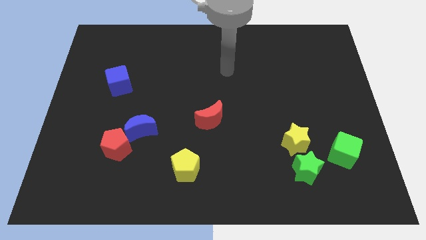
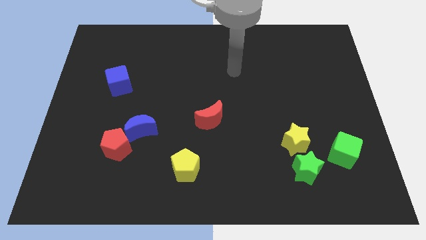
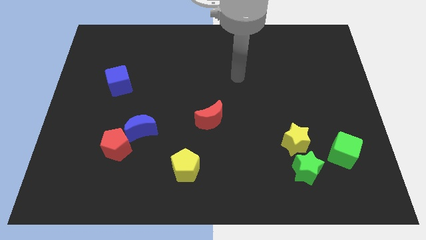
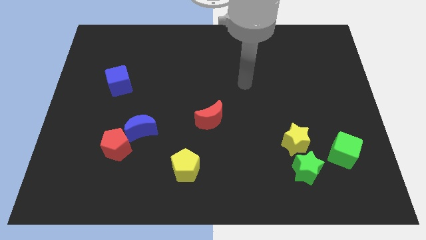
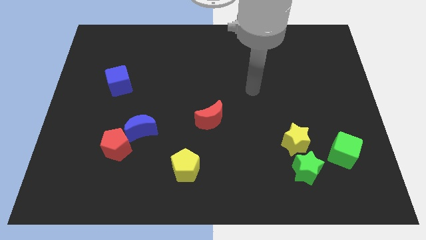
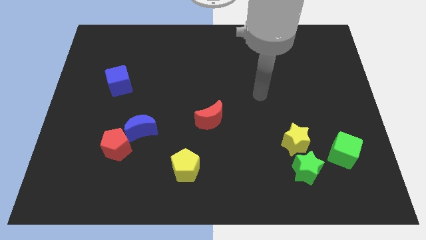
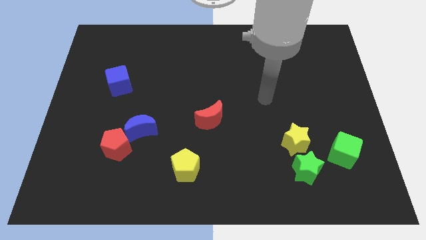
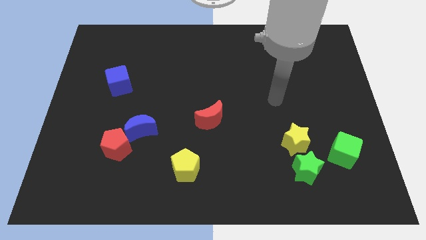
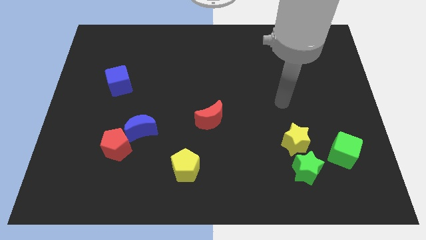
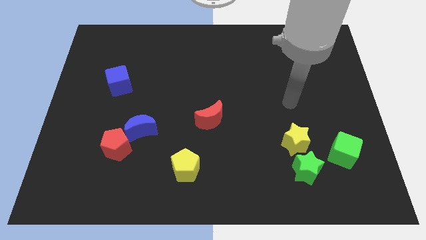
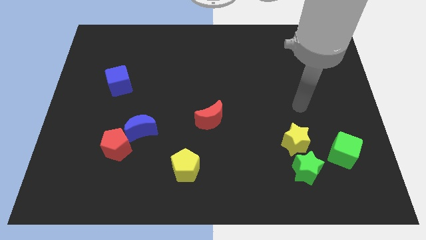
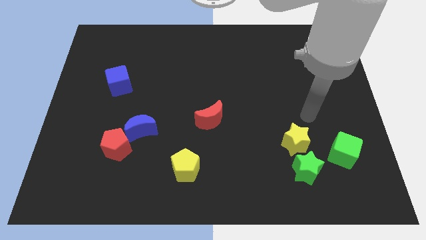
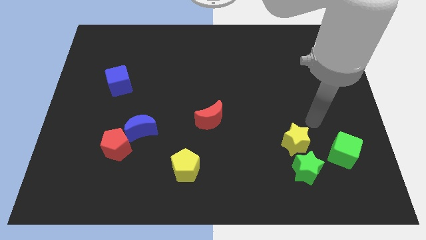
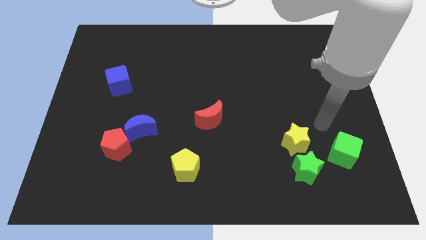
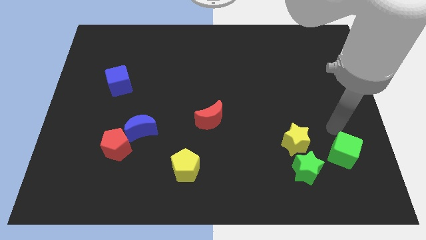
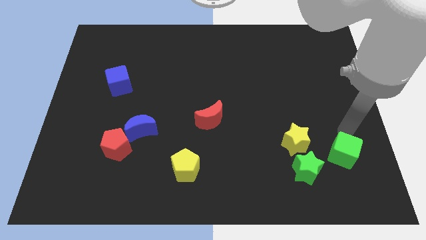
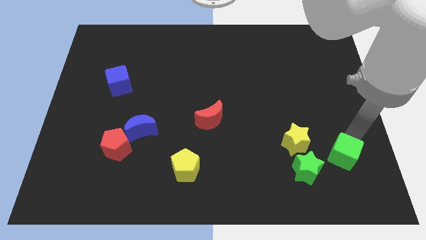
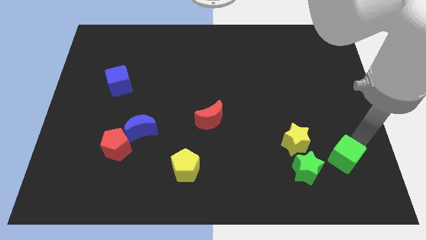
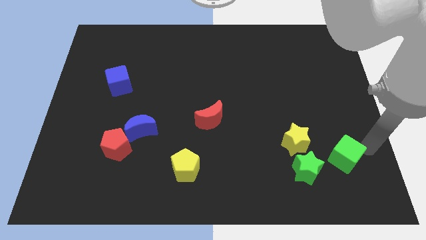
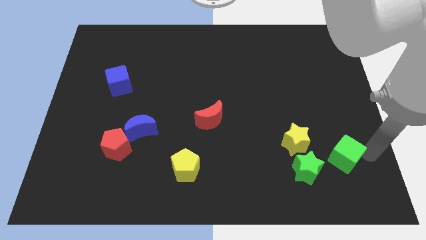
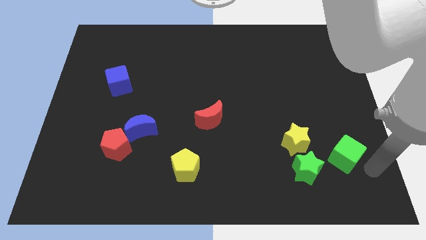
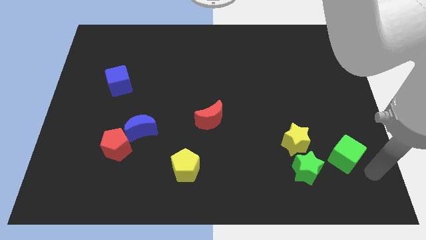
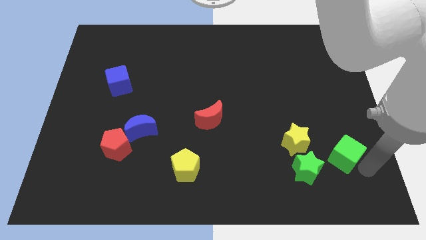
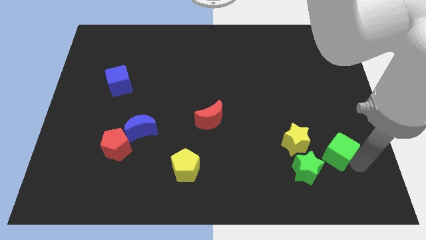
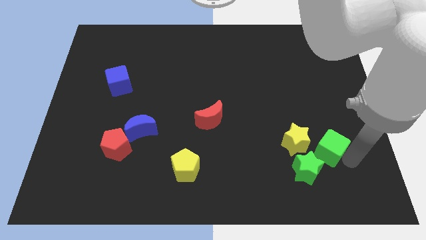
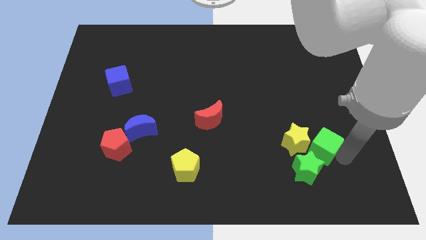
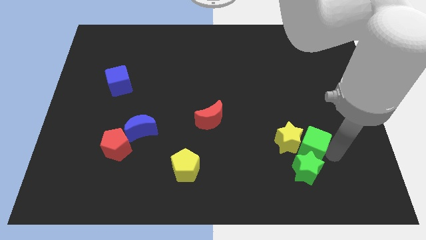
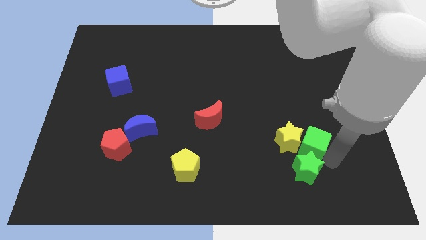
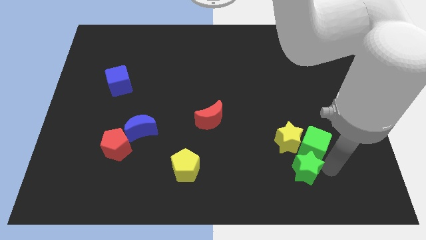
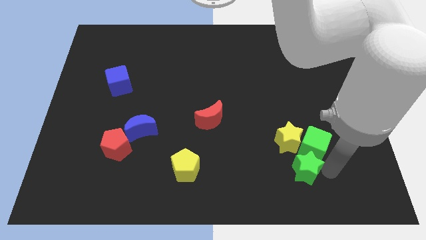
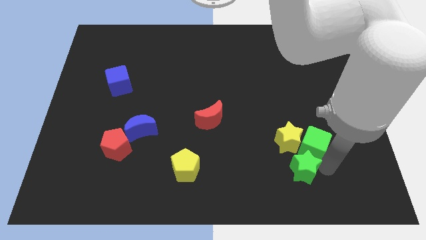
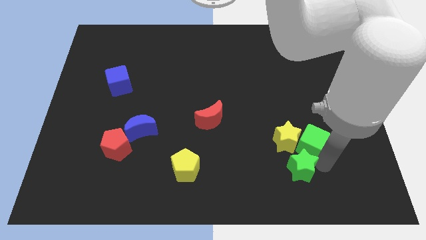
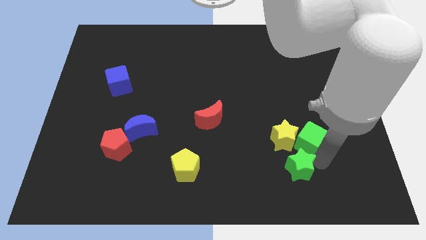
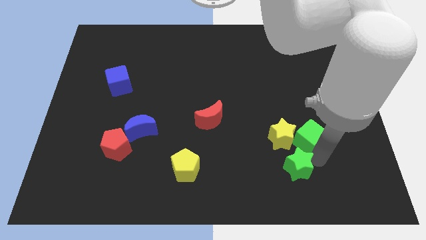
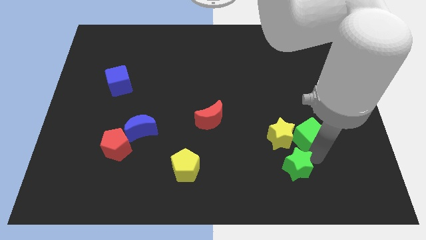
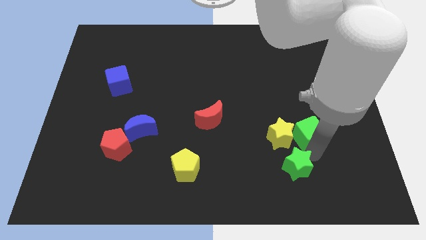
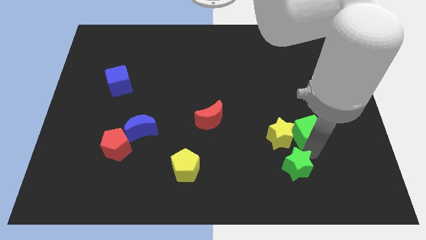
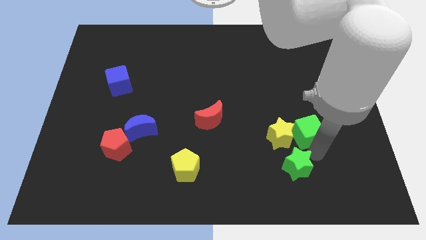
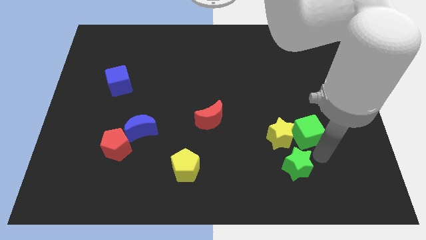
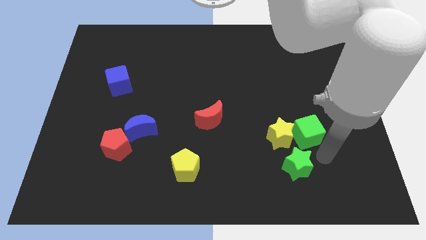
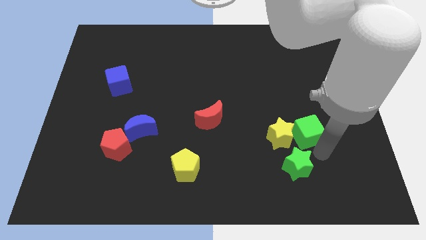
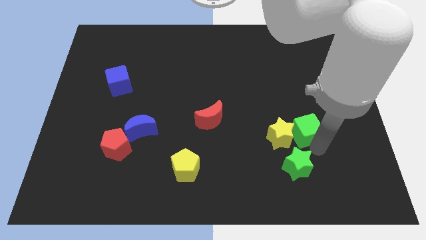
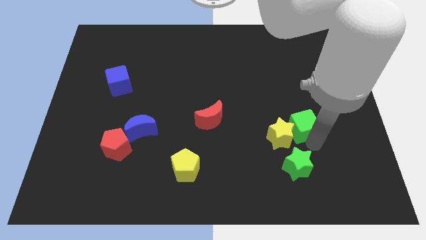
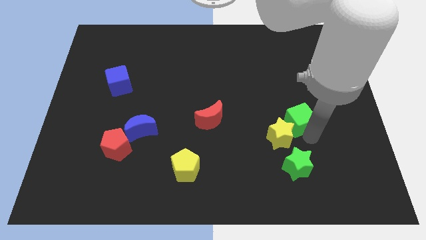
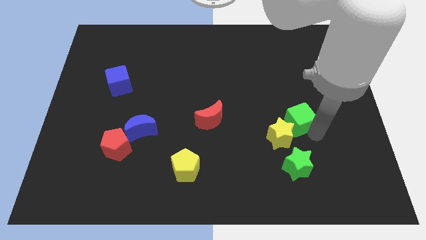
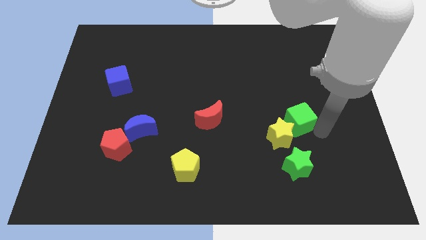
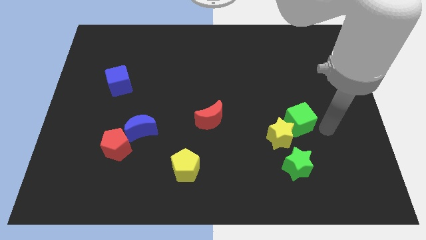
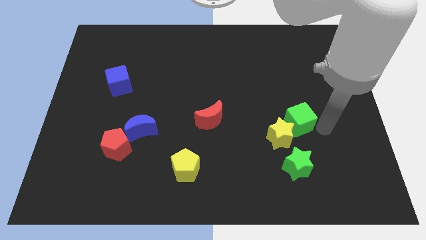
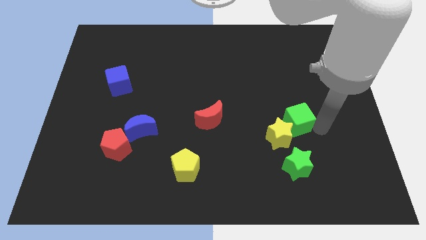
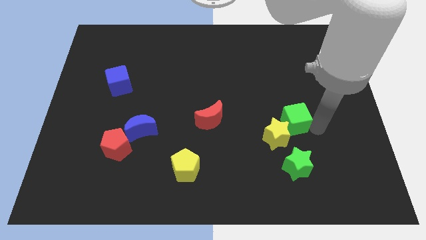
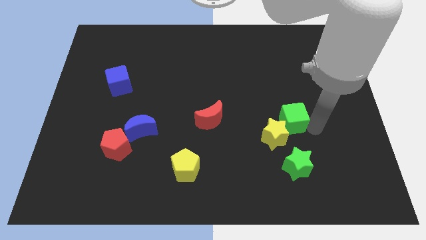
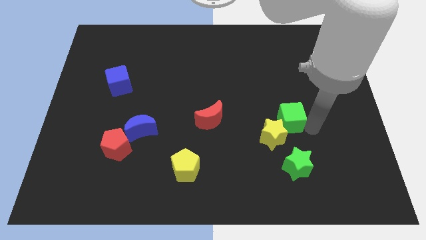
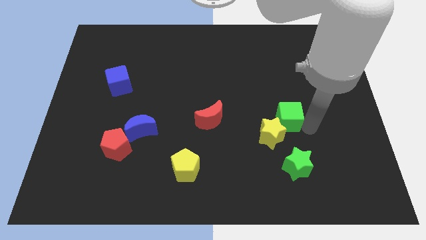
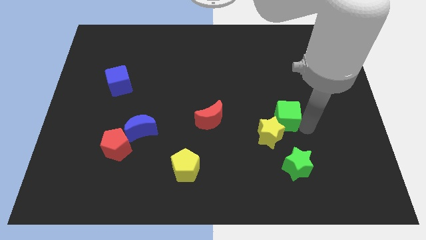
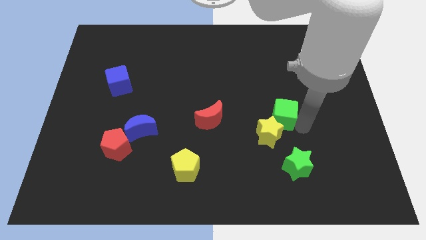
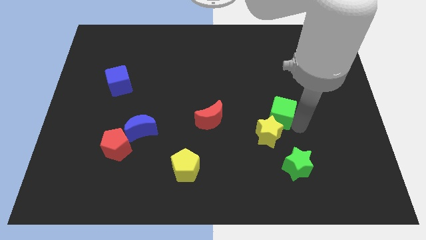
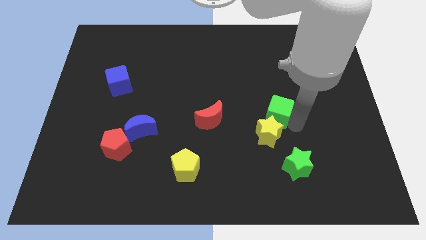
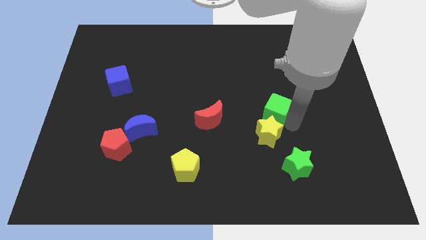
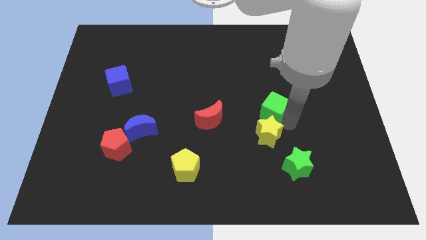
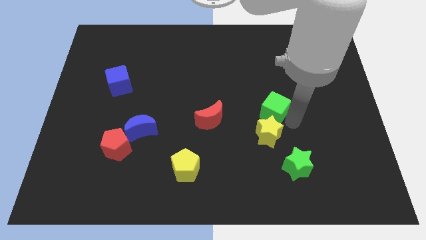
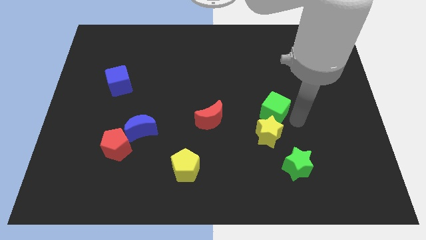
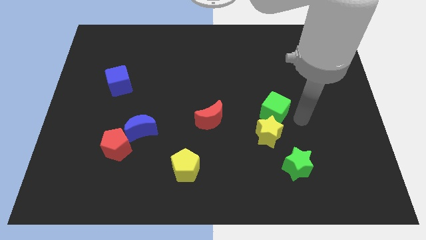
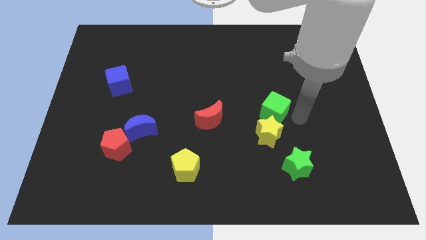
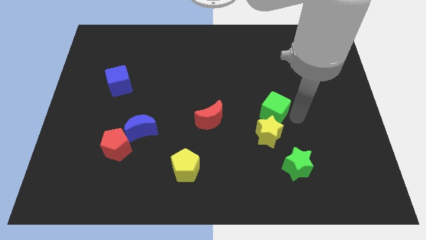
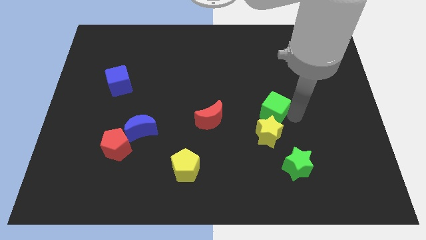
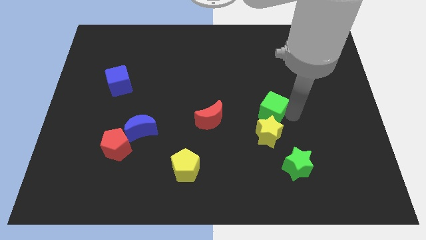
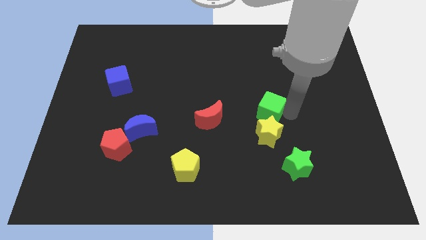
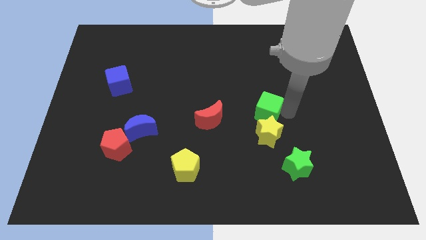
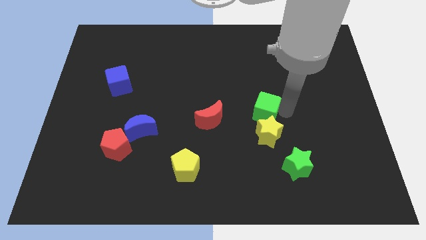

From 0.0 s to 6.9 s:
slide the green cube to the center of the board
